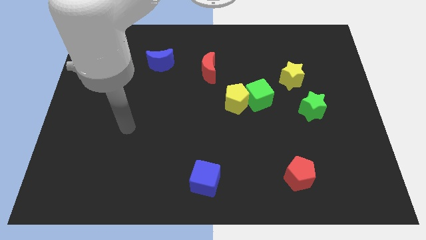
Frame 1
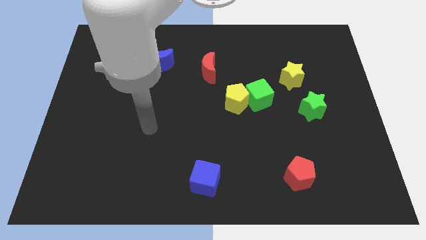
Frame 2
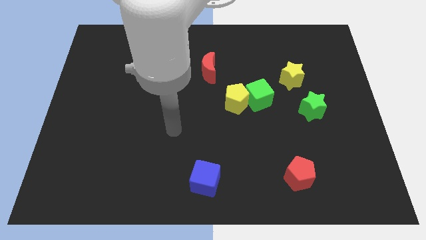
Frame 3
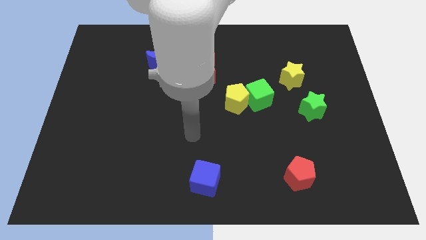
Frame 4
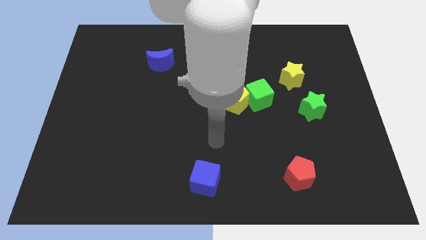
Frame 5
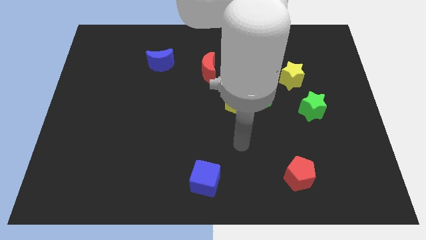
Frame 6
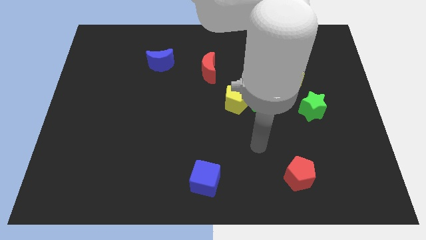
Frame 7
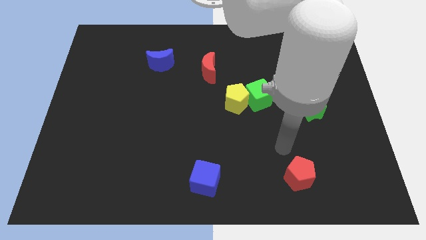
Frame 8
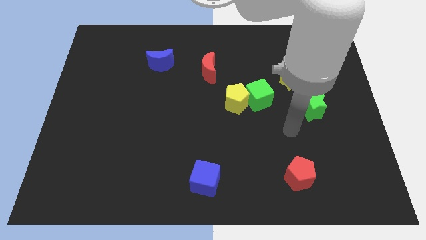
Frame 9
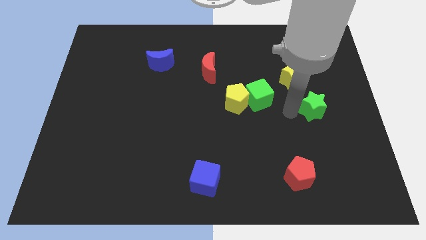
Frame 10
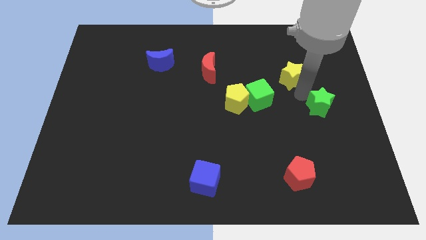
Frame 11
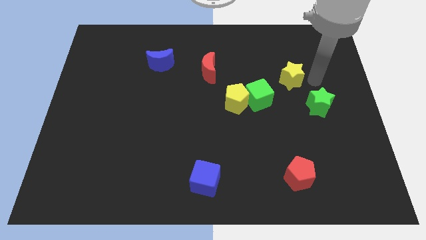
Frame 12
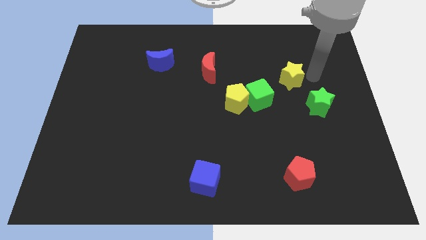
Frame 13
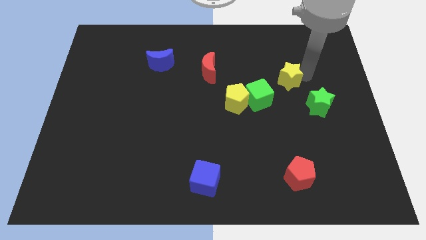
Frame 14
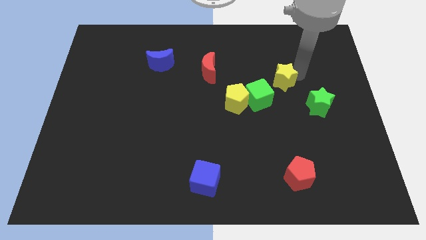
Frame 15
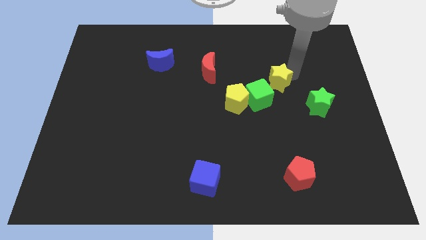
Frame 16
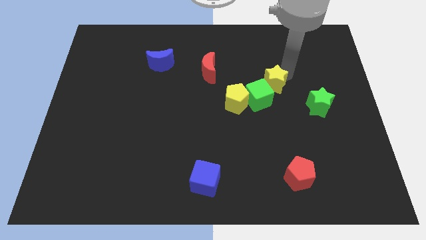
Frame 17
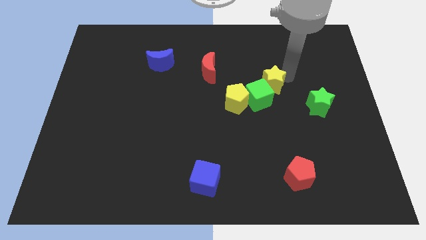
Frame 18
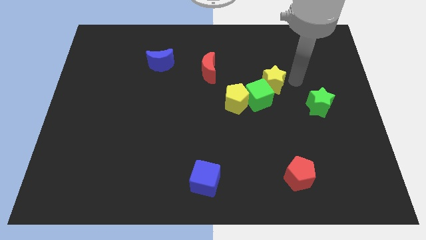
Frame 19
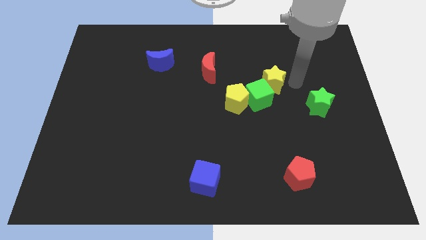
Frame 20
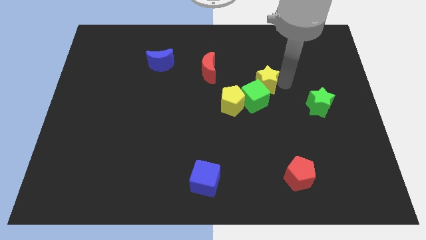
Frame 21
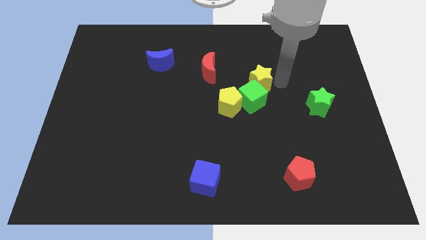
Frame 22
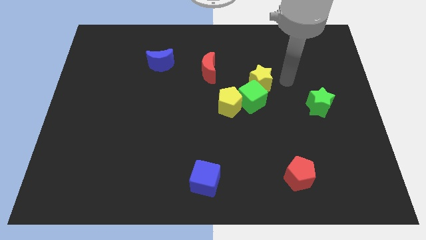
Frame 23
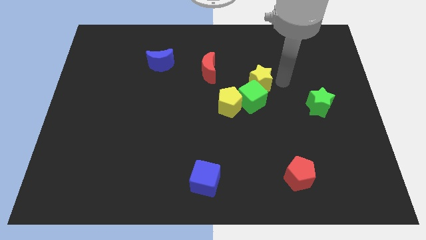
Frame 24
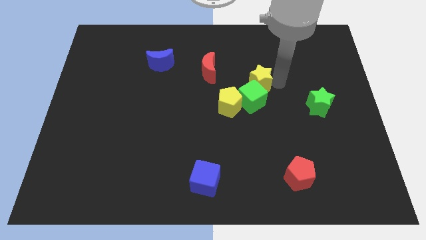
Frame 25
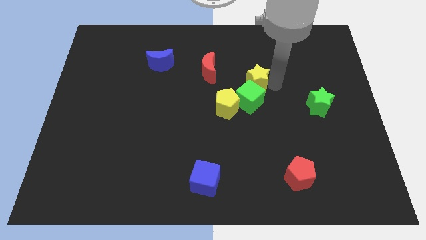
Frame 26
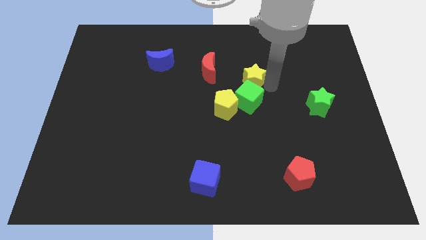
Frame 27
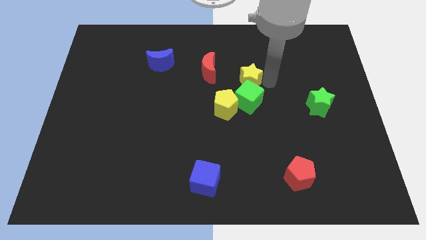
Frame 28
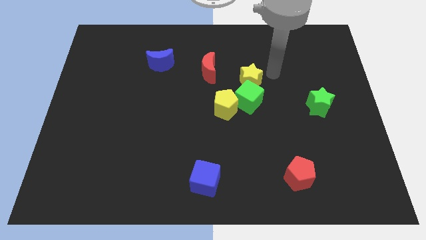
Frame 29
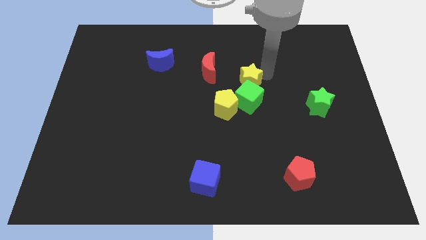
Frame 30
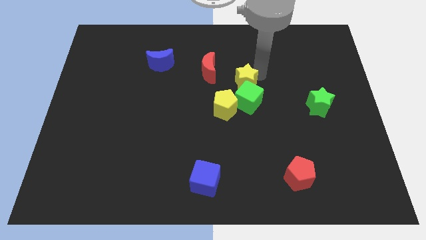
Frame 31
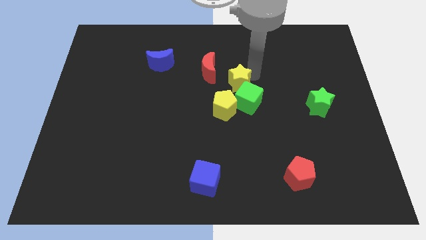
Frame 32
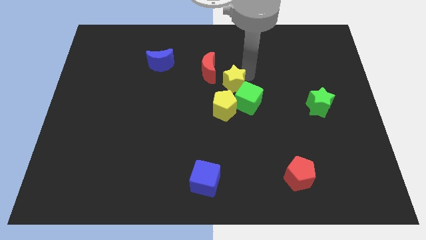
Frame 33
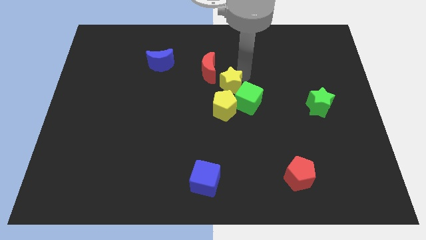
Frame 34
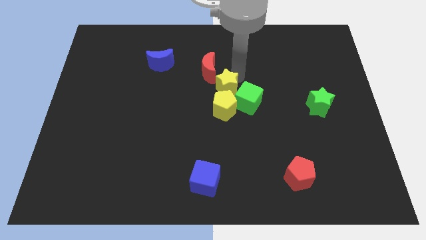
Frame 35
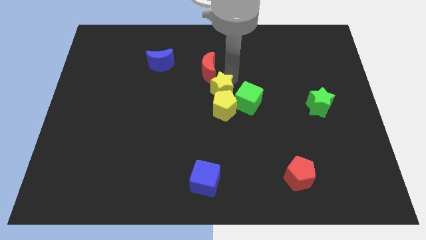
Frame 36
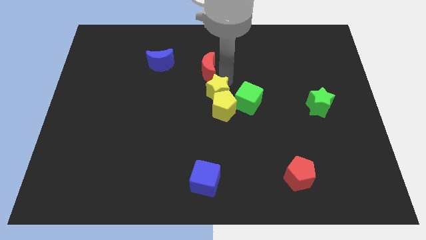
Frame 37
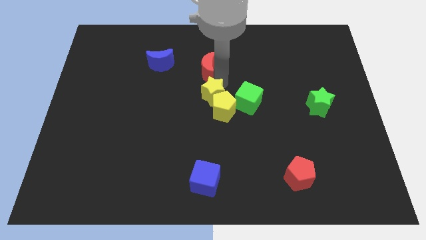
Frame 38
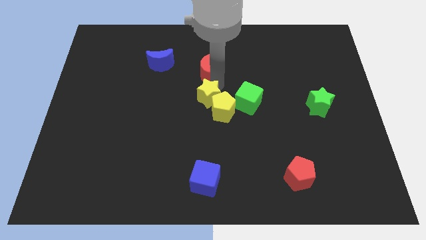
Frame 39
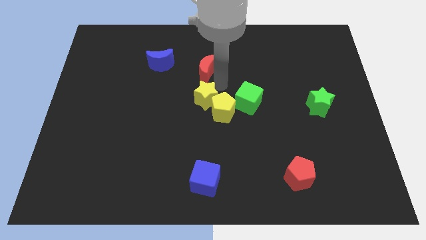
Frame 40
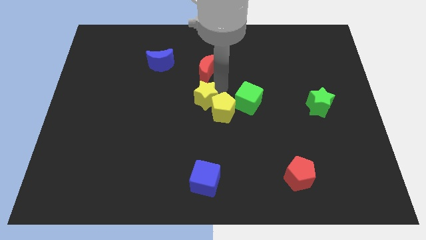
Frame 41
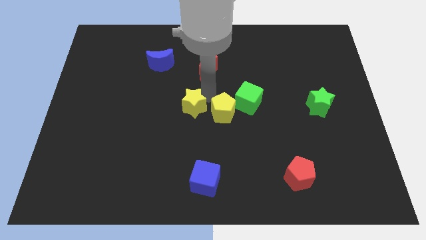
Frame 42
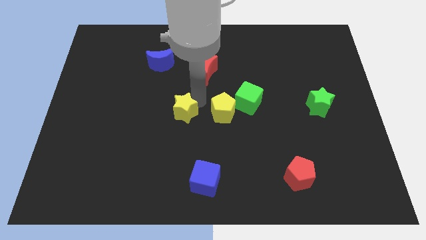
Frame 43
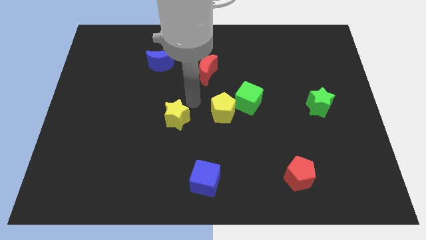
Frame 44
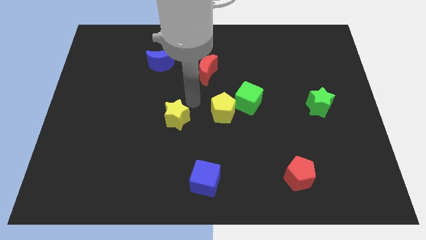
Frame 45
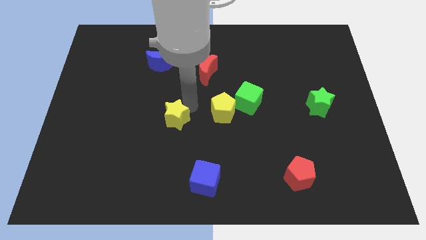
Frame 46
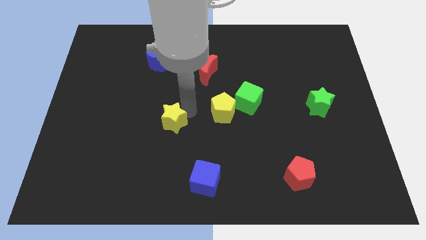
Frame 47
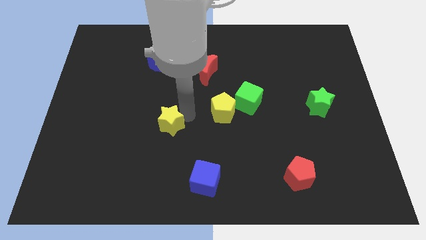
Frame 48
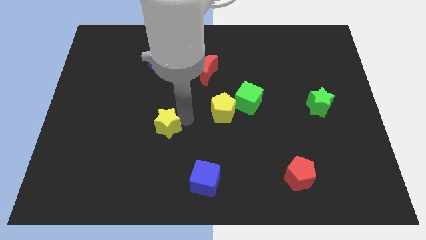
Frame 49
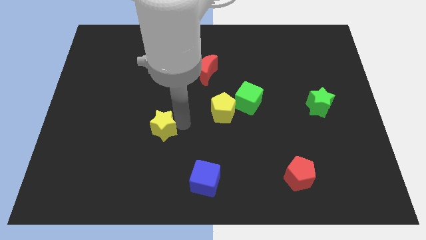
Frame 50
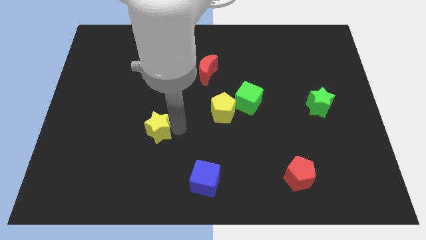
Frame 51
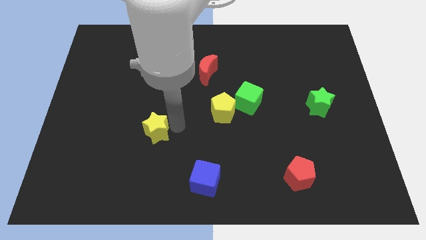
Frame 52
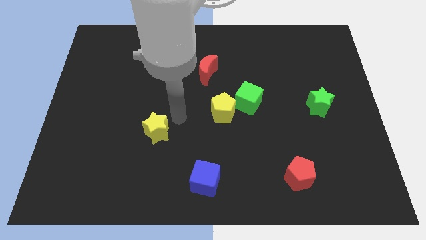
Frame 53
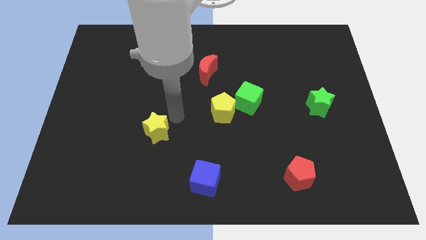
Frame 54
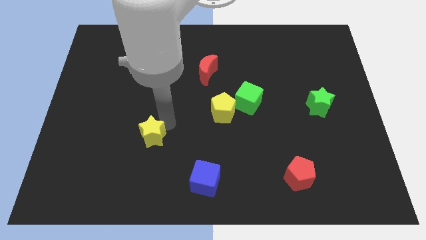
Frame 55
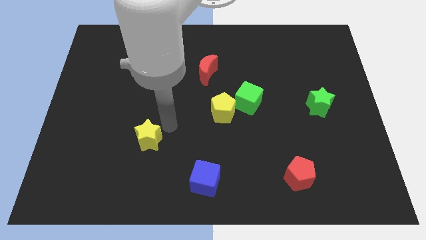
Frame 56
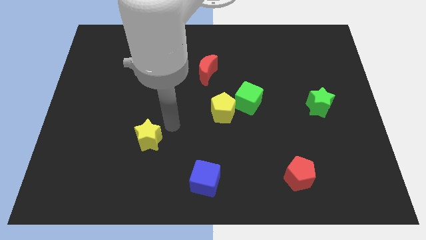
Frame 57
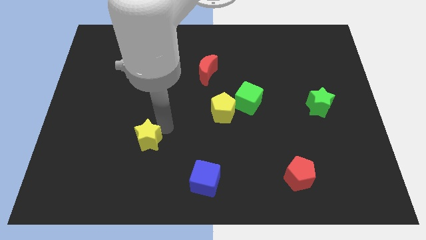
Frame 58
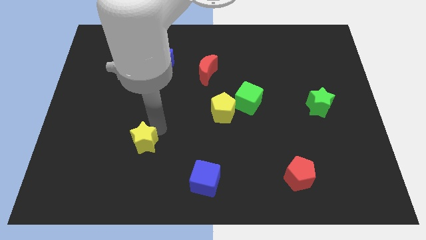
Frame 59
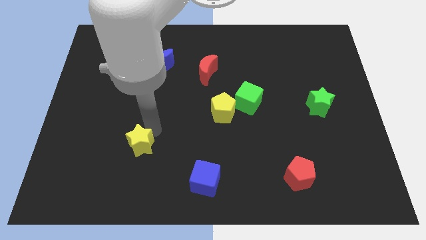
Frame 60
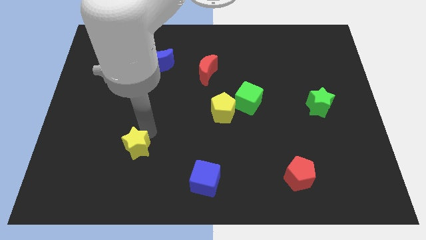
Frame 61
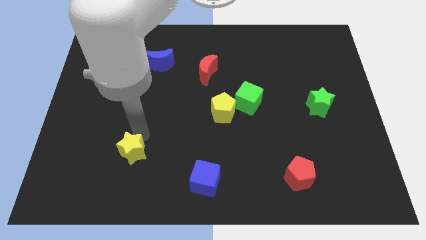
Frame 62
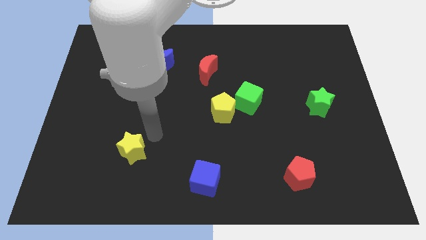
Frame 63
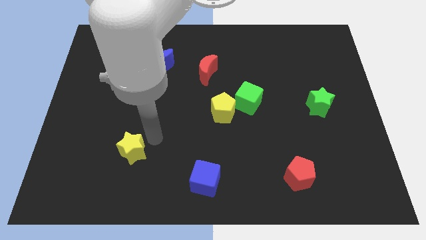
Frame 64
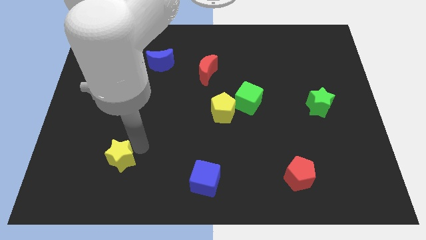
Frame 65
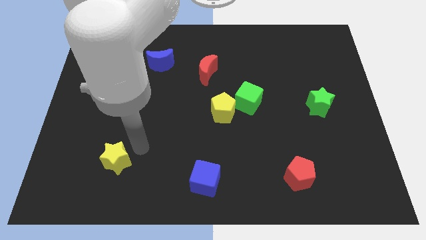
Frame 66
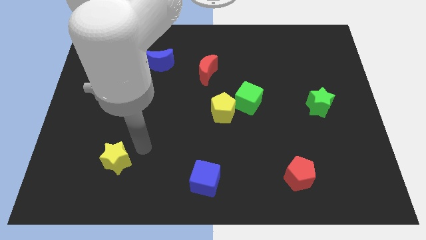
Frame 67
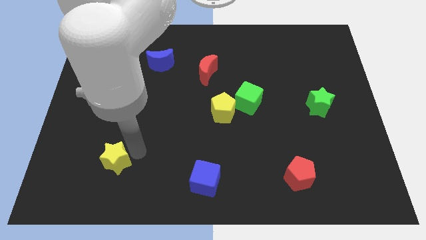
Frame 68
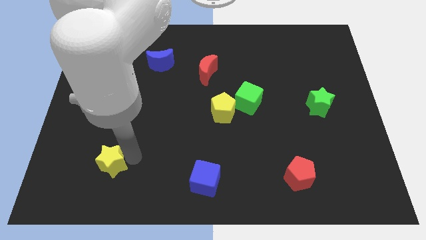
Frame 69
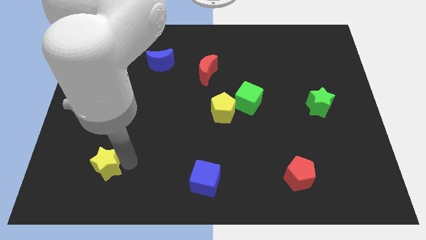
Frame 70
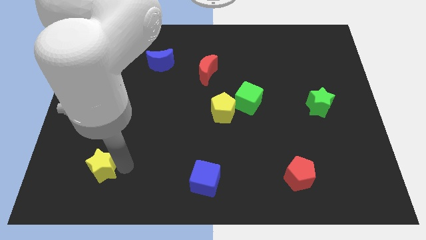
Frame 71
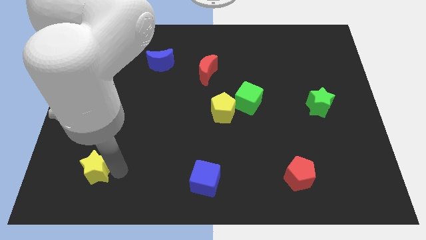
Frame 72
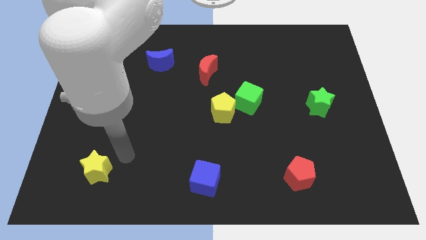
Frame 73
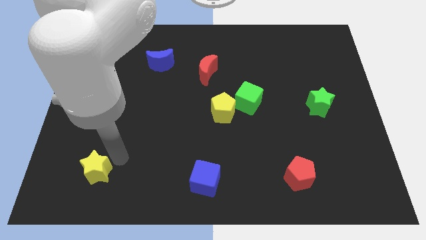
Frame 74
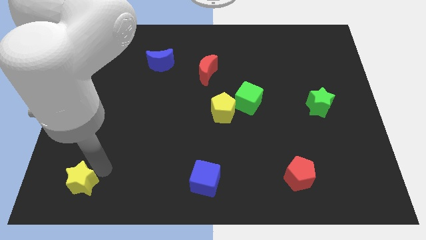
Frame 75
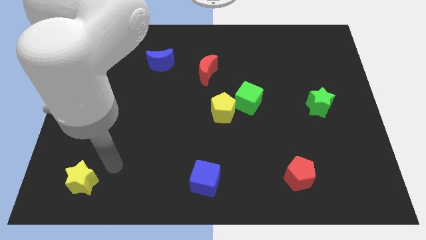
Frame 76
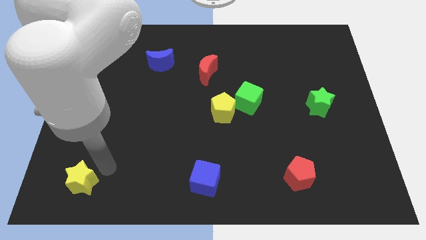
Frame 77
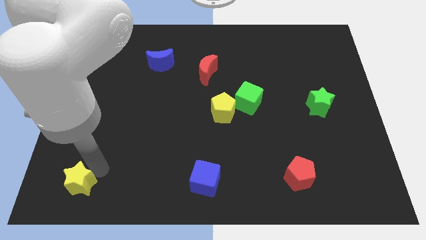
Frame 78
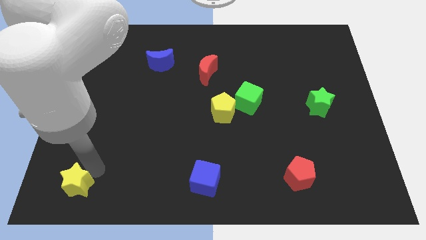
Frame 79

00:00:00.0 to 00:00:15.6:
push the yellow star to the bottom left
